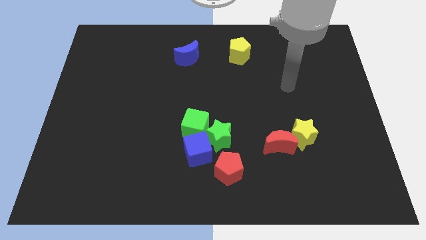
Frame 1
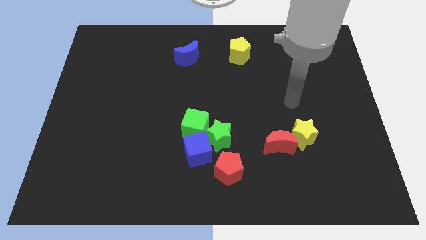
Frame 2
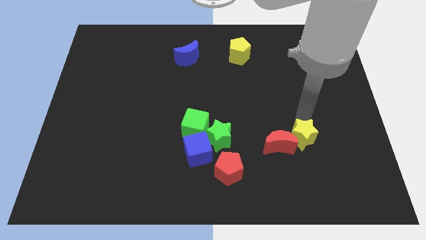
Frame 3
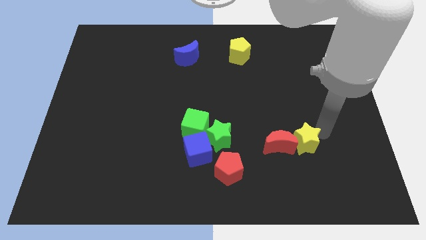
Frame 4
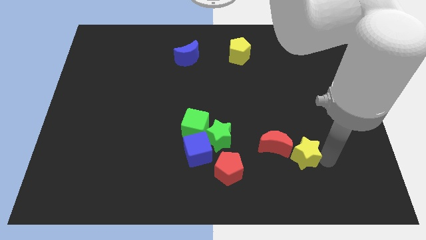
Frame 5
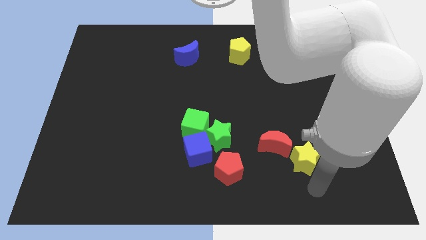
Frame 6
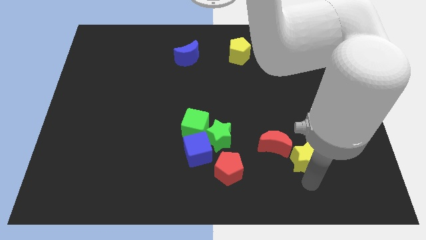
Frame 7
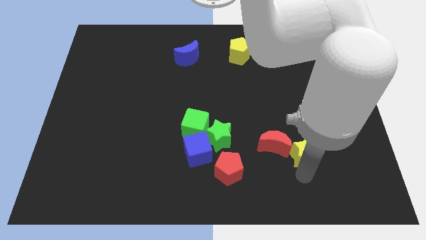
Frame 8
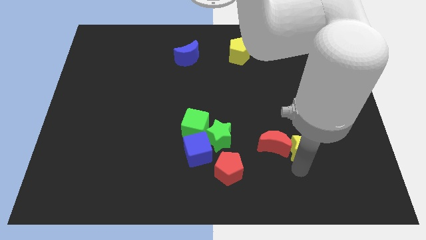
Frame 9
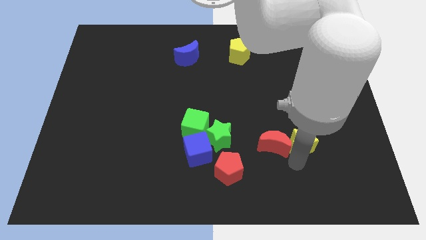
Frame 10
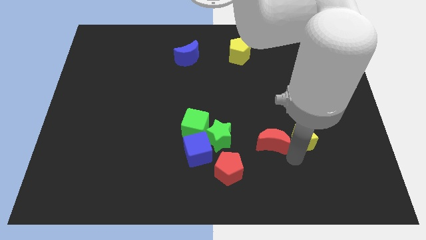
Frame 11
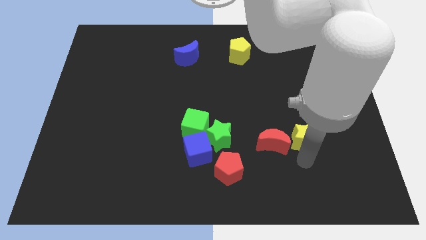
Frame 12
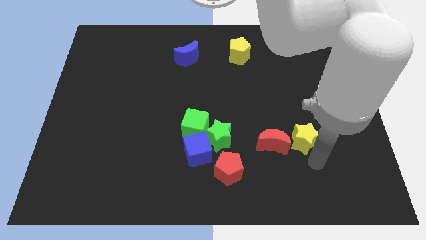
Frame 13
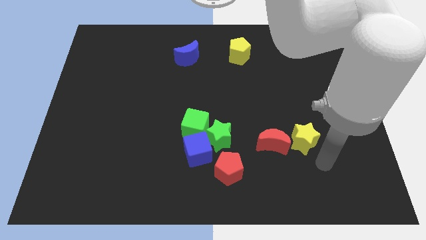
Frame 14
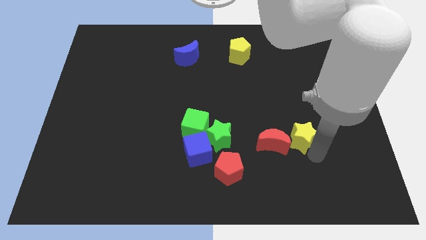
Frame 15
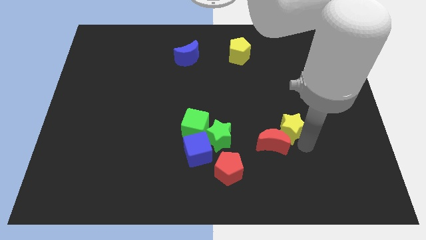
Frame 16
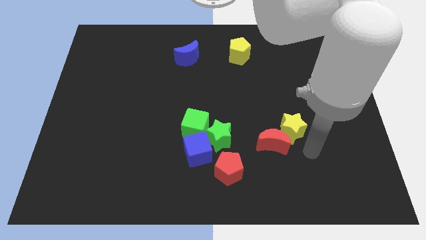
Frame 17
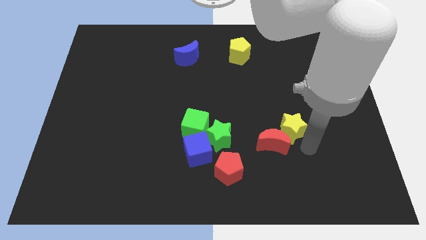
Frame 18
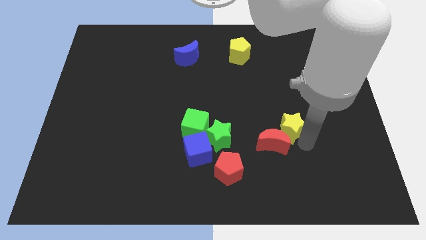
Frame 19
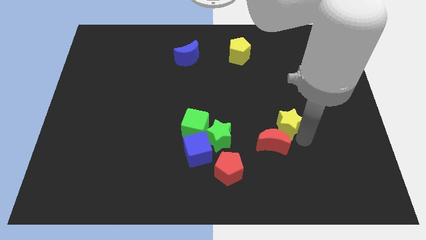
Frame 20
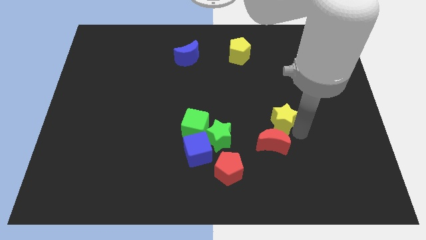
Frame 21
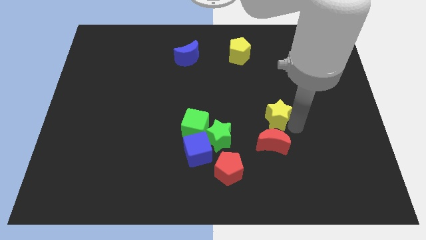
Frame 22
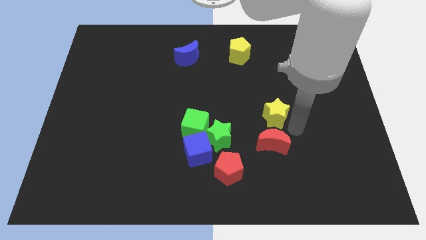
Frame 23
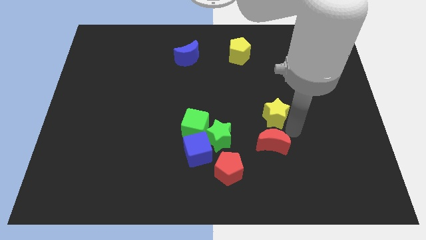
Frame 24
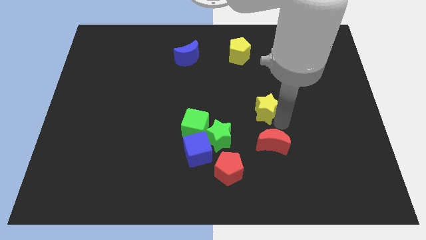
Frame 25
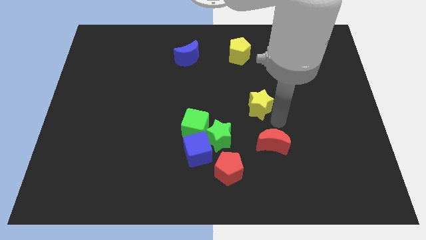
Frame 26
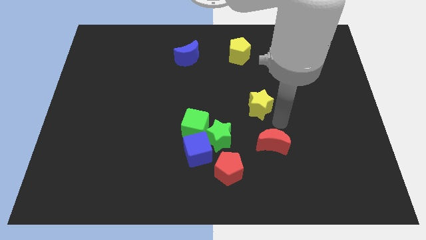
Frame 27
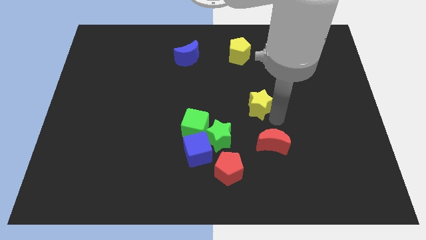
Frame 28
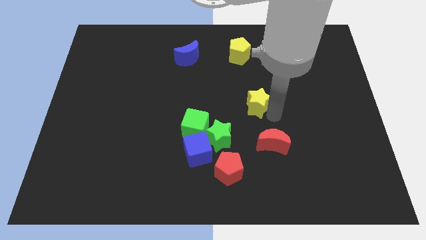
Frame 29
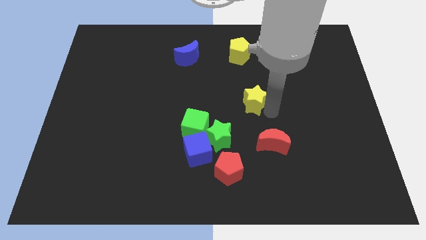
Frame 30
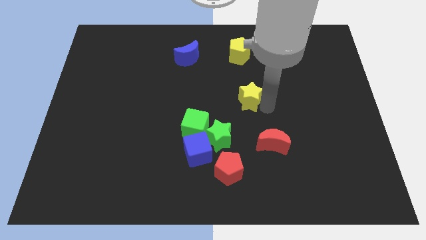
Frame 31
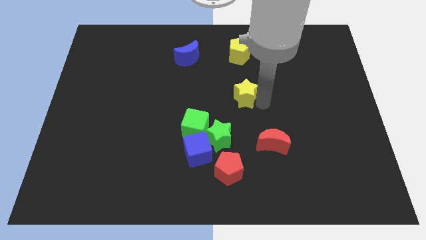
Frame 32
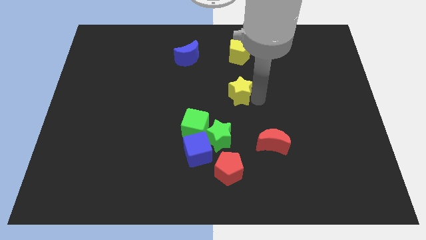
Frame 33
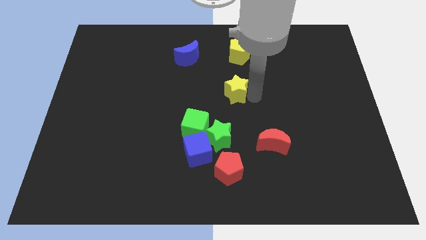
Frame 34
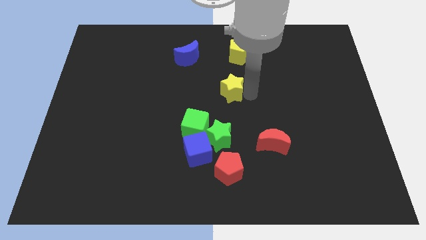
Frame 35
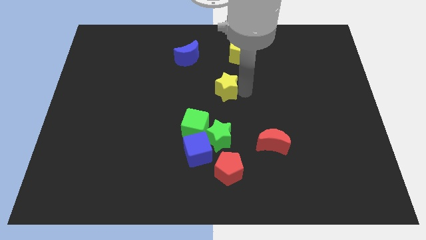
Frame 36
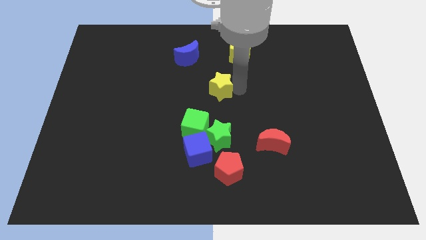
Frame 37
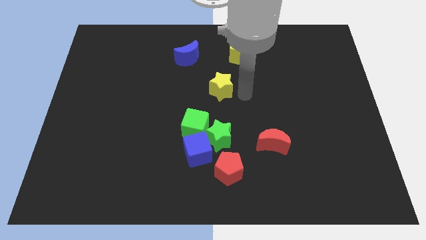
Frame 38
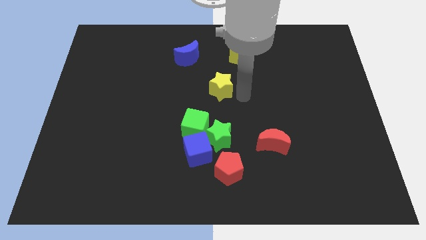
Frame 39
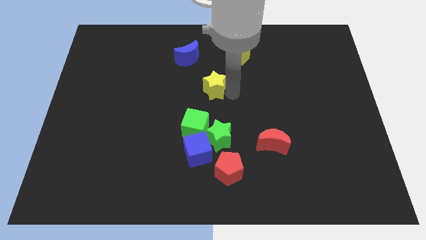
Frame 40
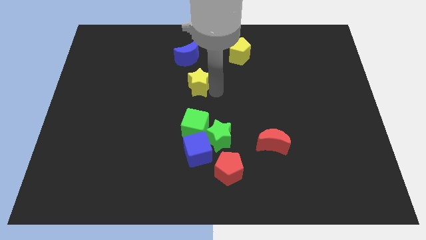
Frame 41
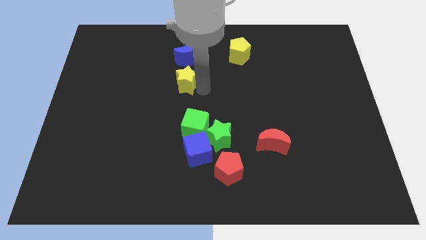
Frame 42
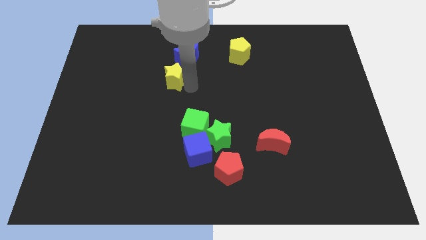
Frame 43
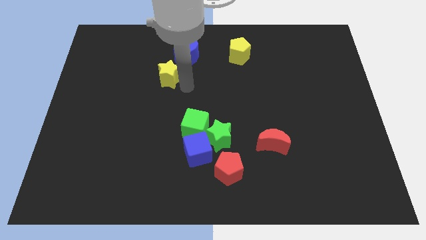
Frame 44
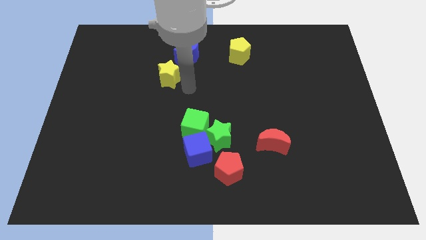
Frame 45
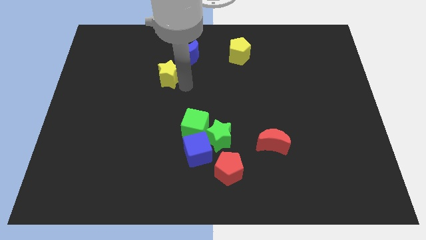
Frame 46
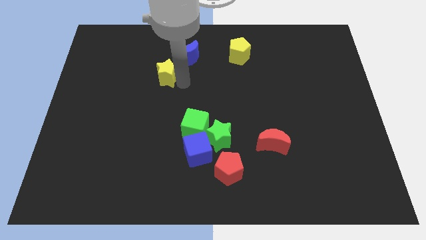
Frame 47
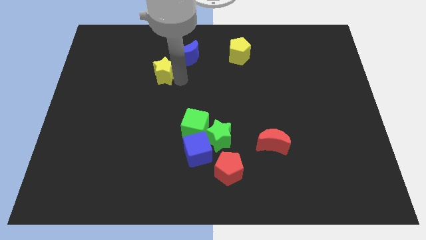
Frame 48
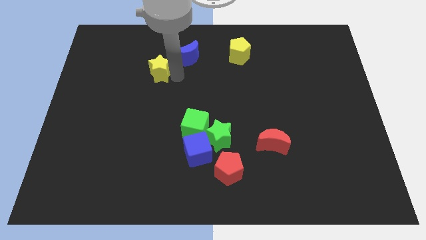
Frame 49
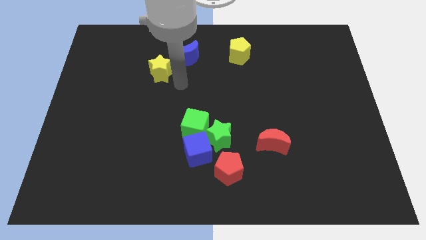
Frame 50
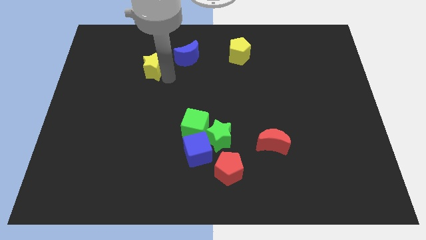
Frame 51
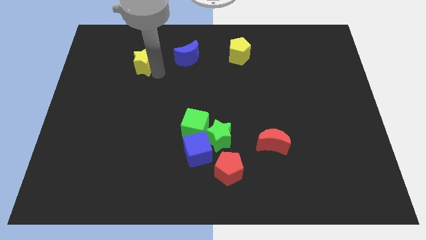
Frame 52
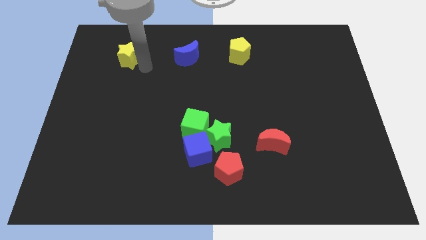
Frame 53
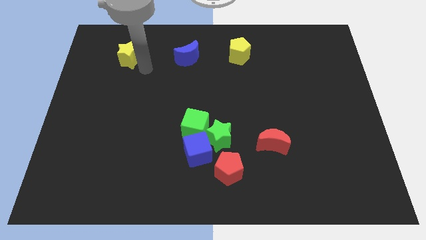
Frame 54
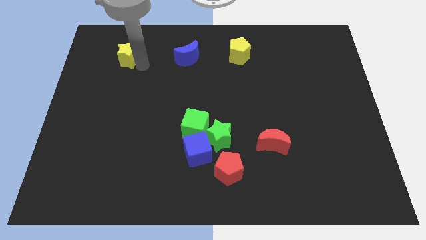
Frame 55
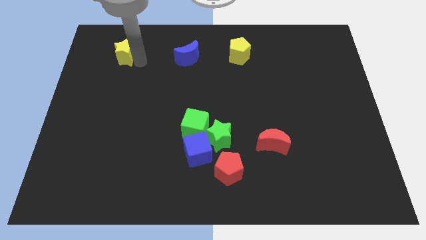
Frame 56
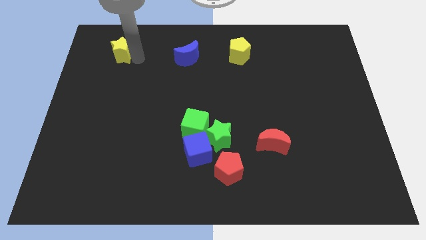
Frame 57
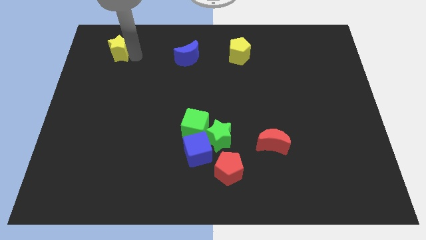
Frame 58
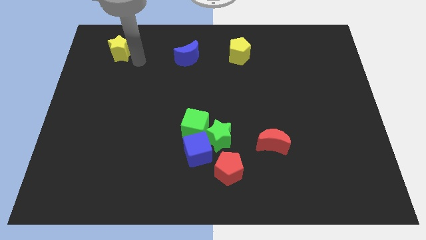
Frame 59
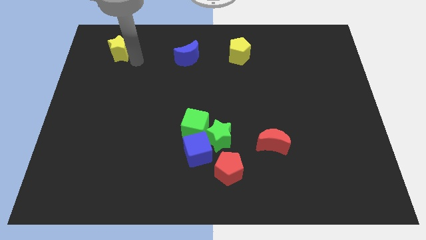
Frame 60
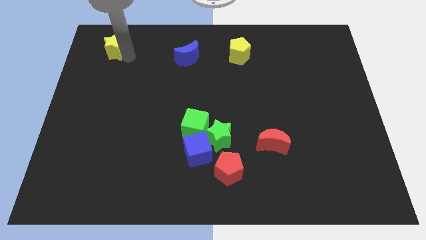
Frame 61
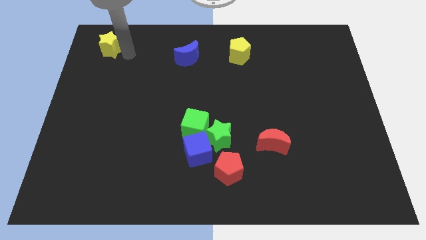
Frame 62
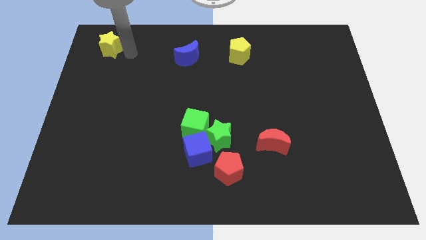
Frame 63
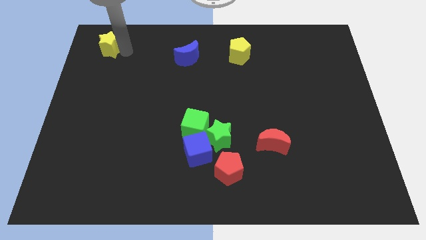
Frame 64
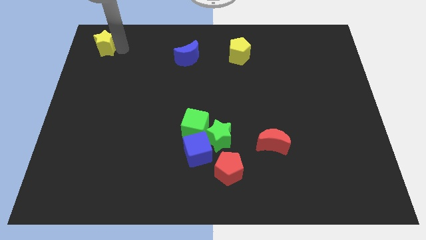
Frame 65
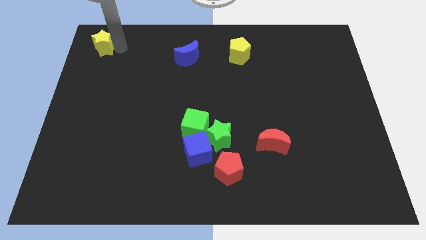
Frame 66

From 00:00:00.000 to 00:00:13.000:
push the yellow star to the top left corner
